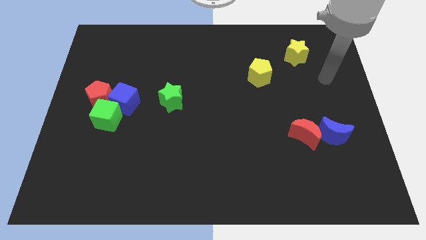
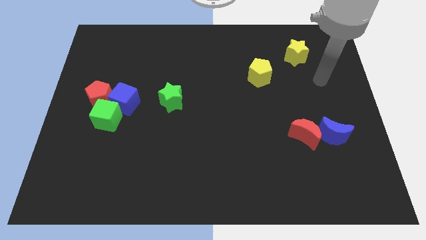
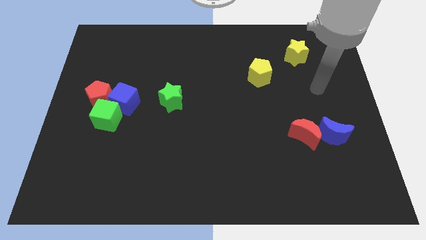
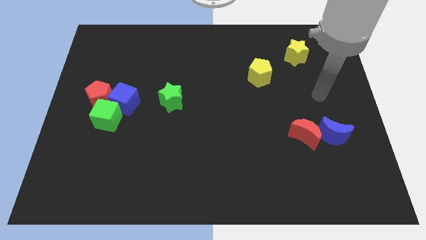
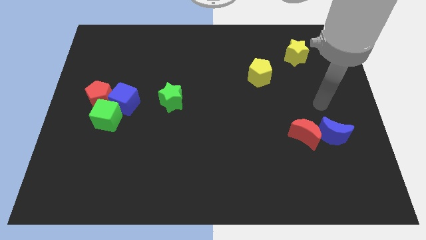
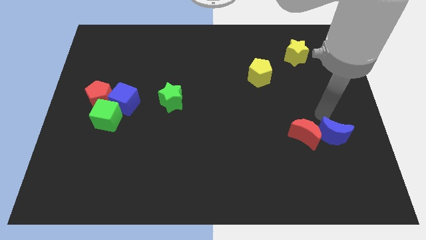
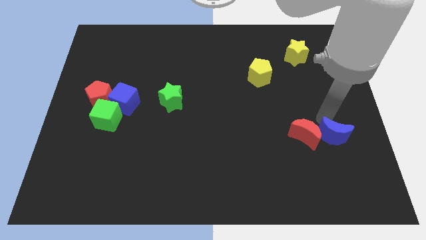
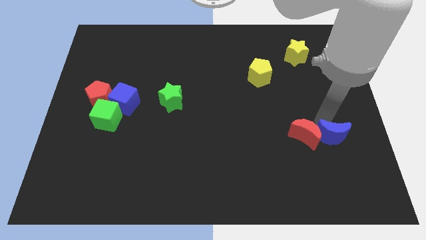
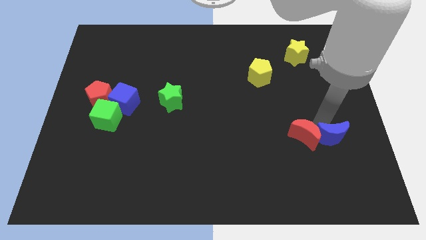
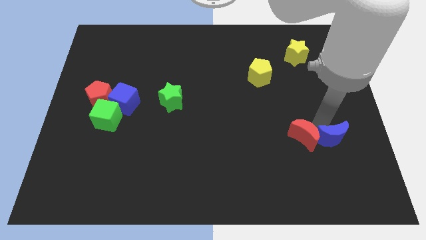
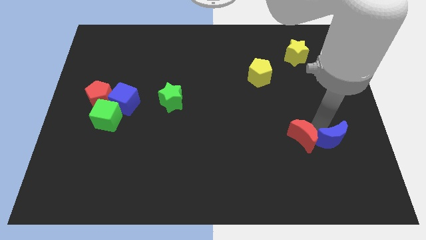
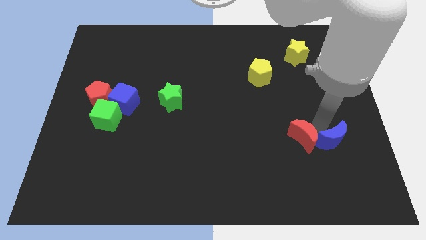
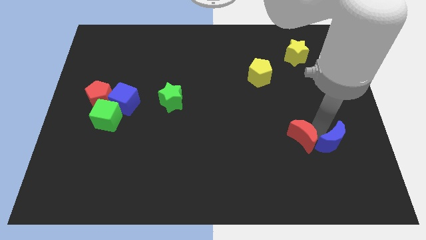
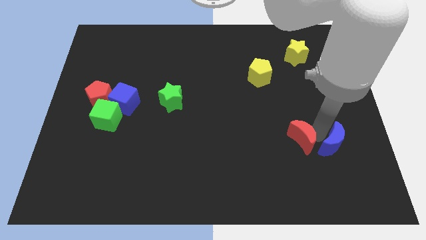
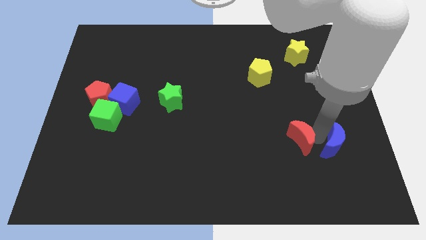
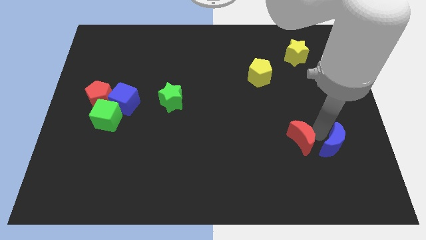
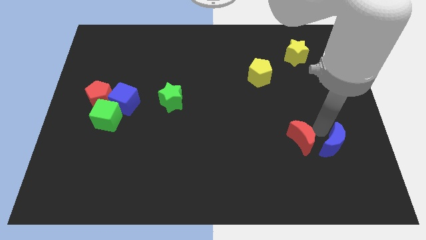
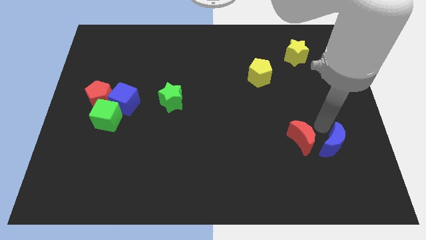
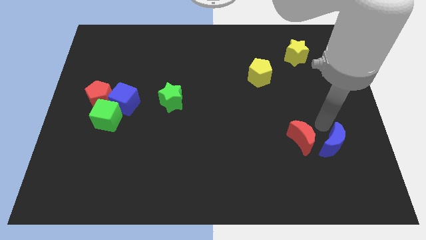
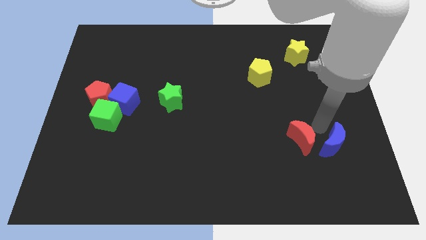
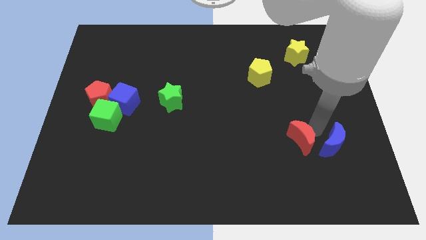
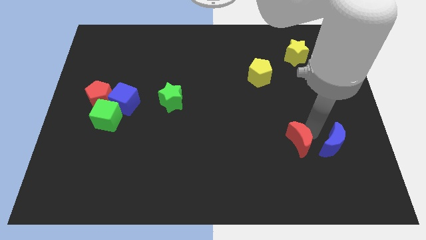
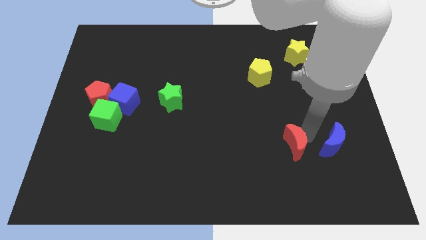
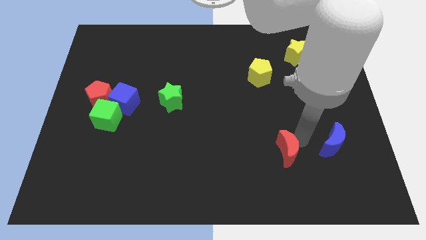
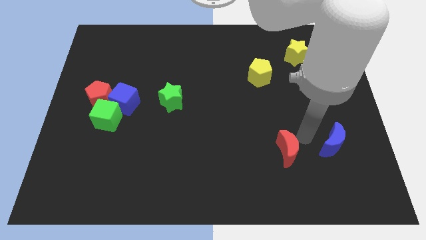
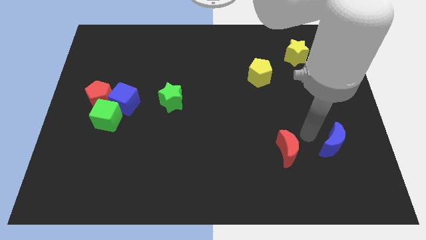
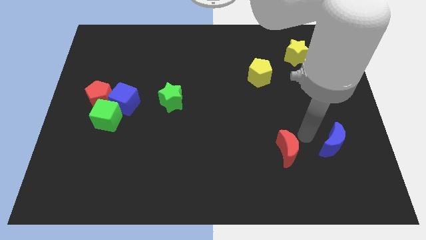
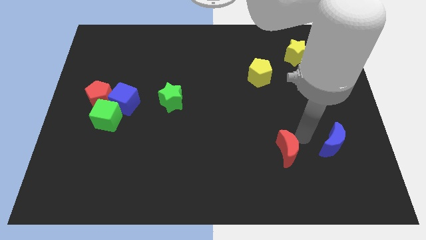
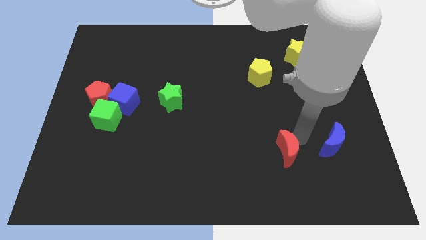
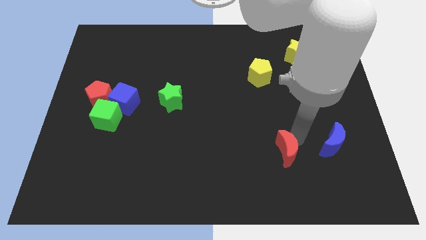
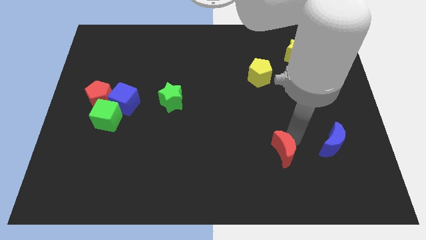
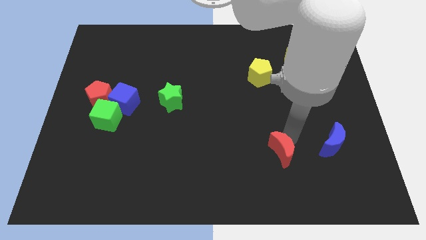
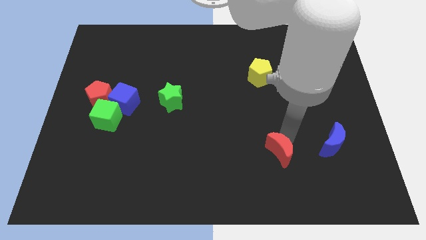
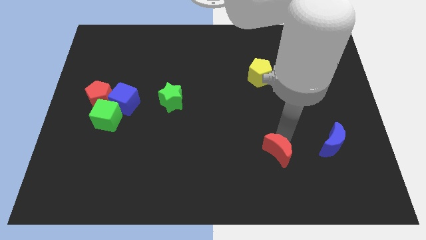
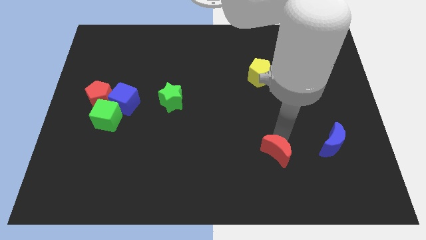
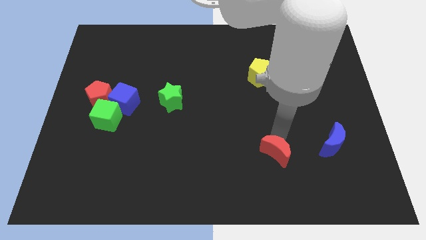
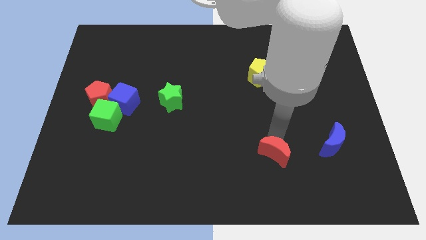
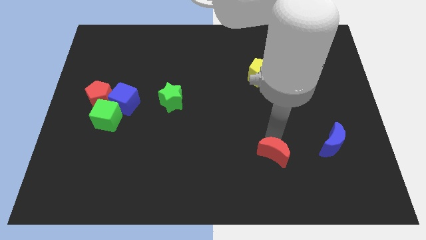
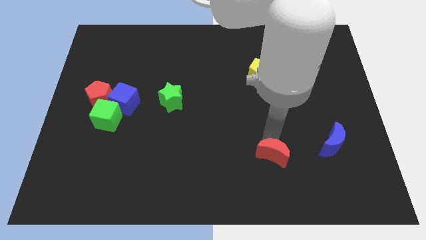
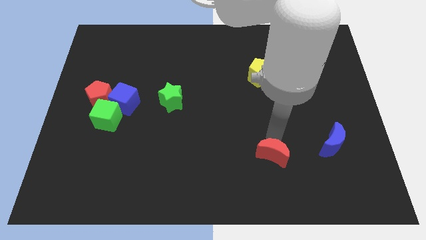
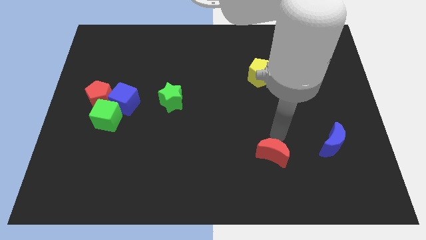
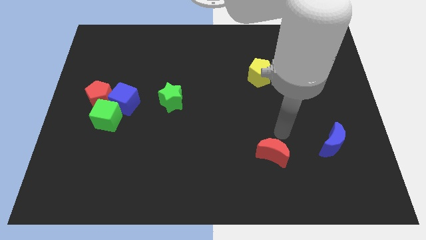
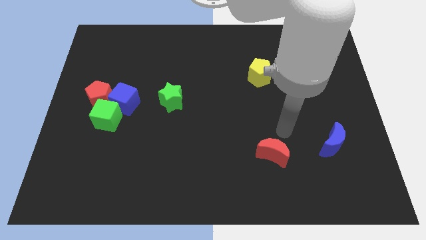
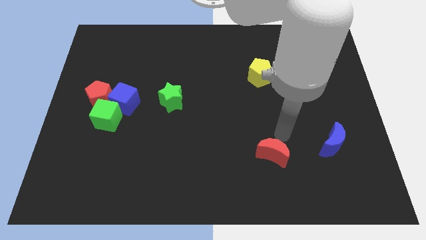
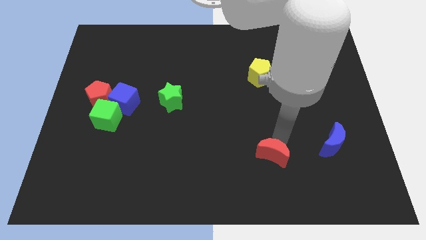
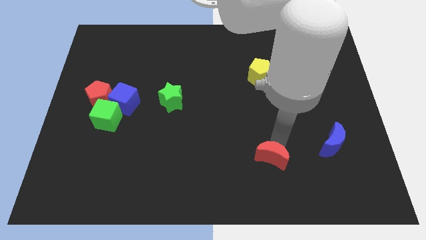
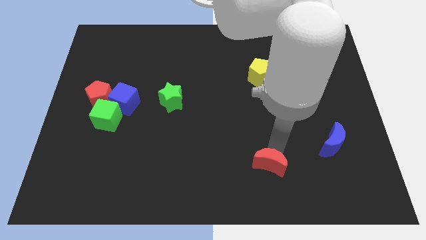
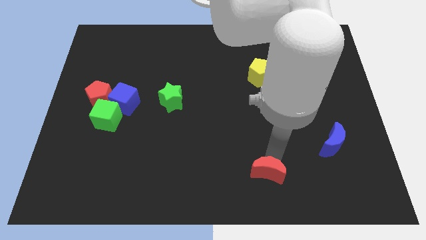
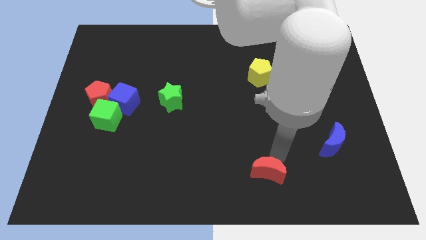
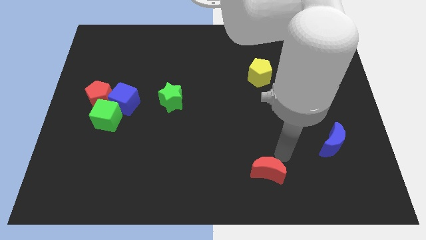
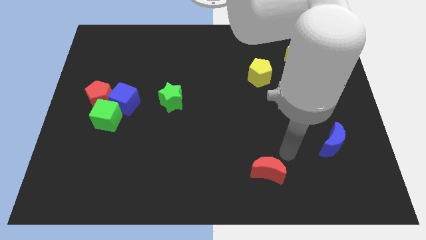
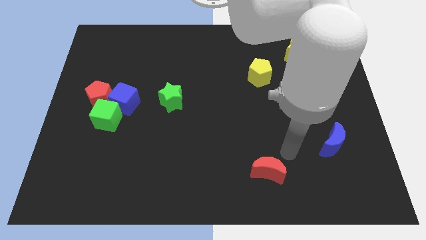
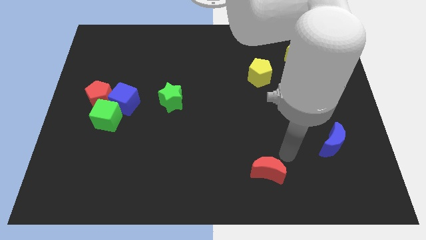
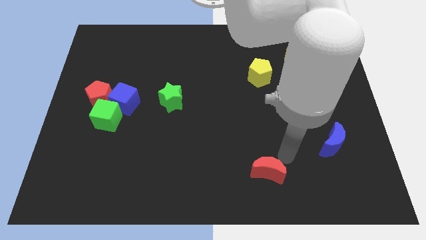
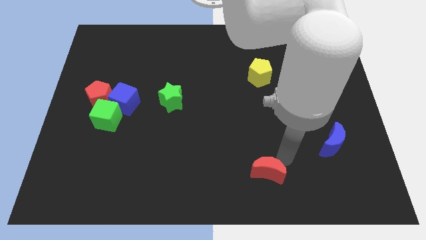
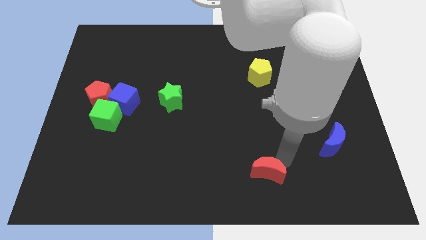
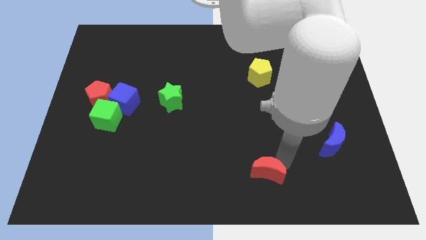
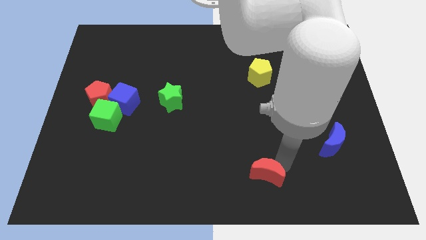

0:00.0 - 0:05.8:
push the red moon to the bottom
